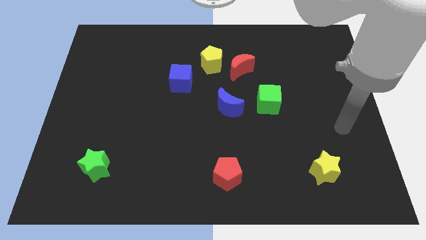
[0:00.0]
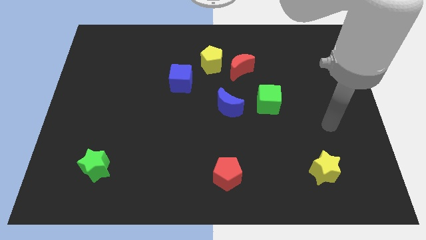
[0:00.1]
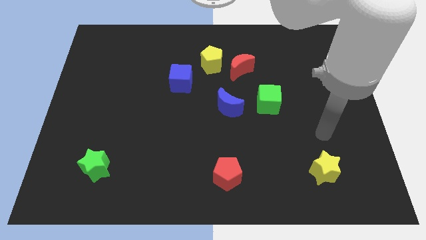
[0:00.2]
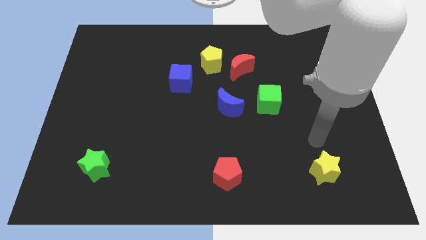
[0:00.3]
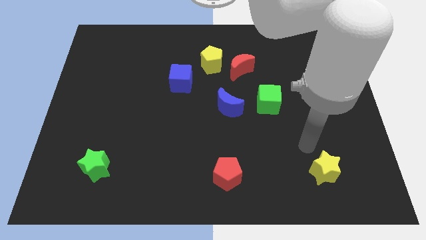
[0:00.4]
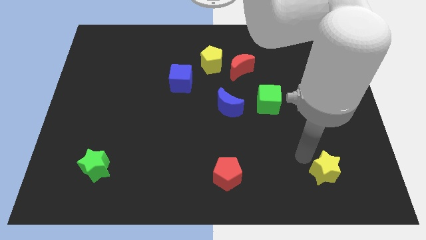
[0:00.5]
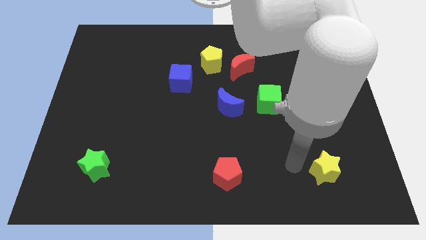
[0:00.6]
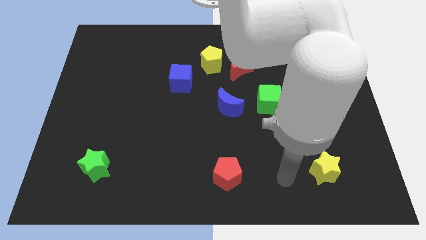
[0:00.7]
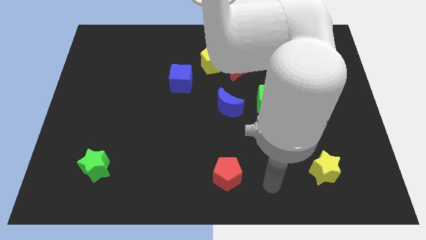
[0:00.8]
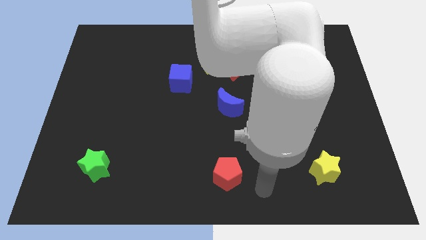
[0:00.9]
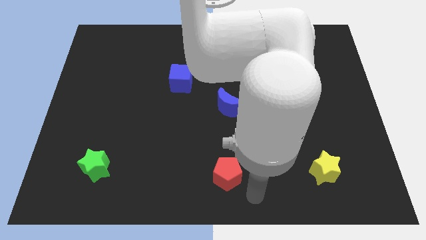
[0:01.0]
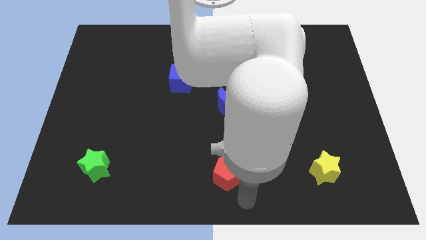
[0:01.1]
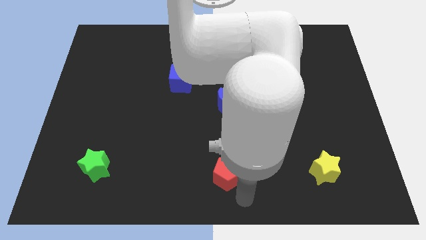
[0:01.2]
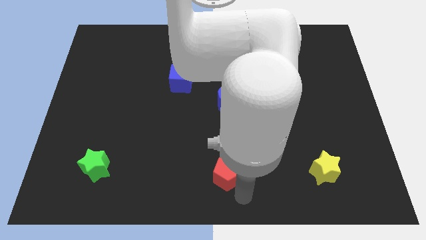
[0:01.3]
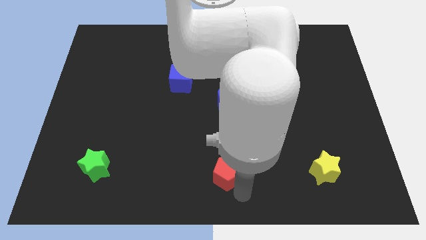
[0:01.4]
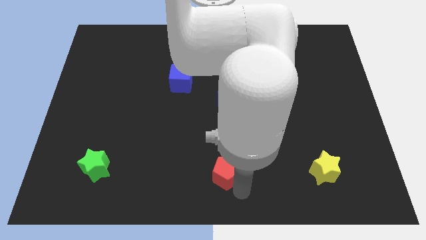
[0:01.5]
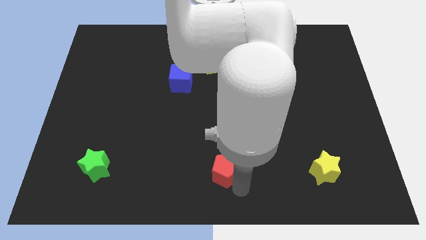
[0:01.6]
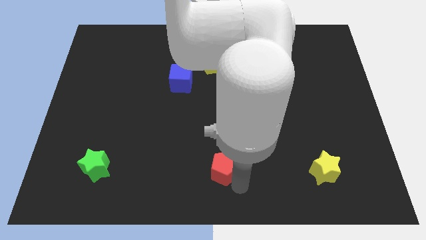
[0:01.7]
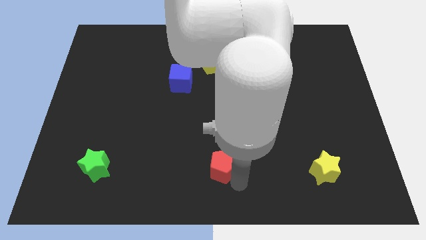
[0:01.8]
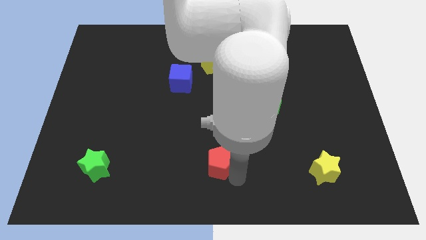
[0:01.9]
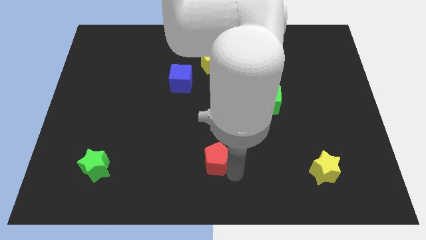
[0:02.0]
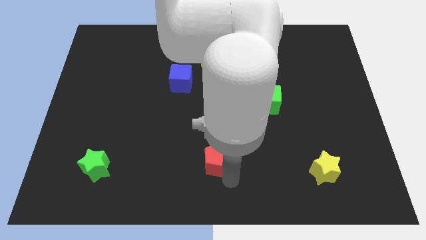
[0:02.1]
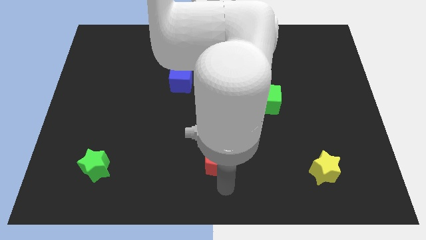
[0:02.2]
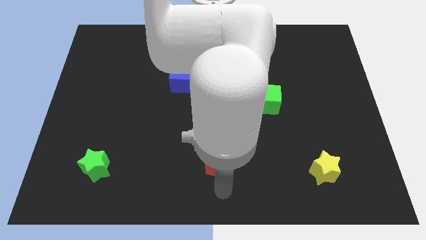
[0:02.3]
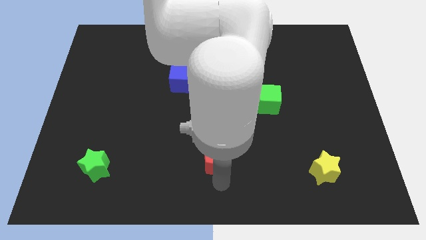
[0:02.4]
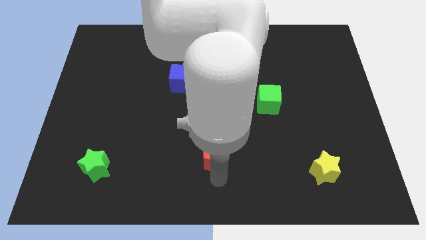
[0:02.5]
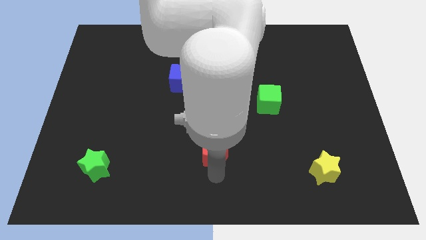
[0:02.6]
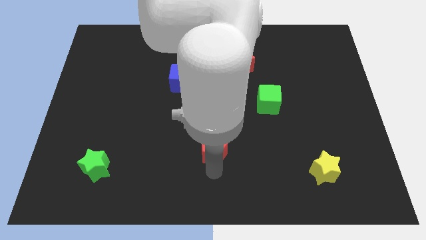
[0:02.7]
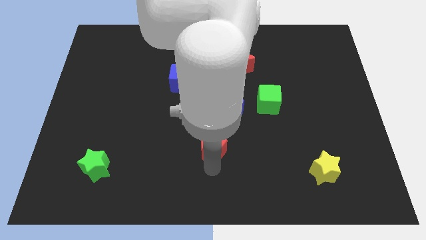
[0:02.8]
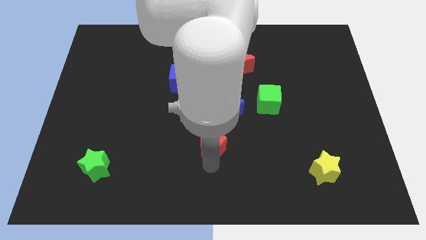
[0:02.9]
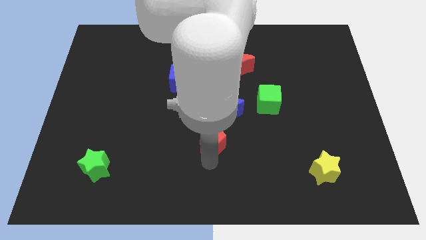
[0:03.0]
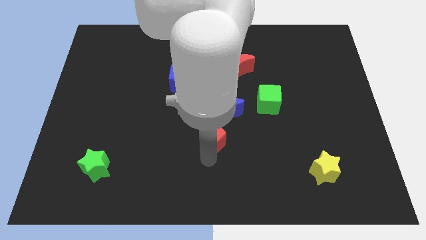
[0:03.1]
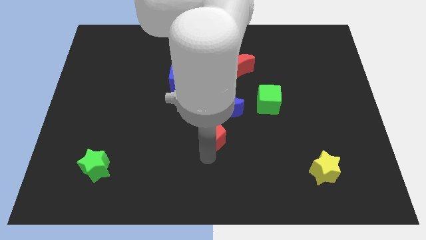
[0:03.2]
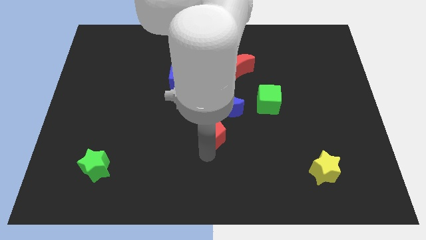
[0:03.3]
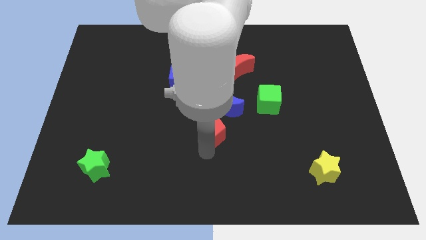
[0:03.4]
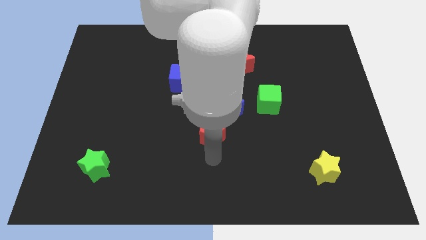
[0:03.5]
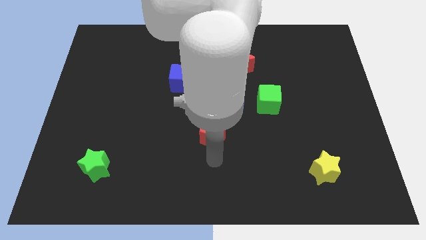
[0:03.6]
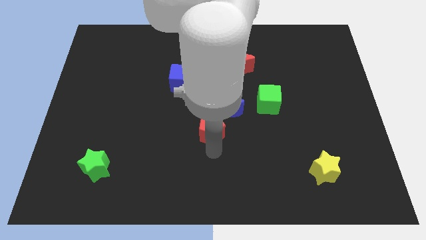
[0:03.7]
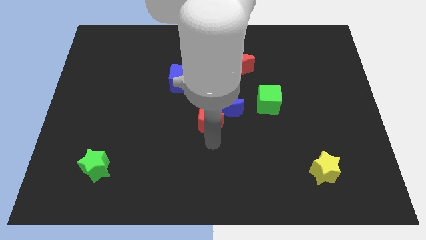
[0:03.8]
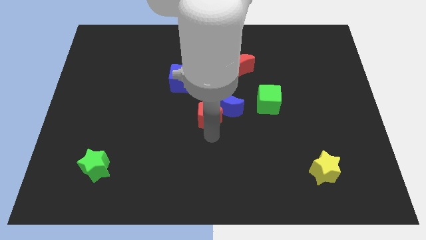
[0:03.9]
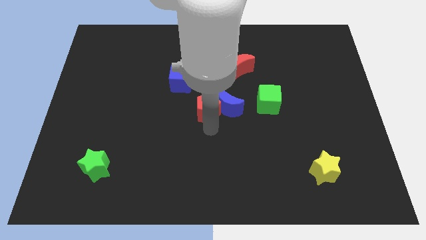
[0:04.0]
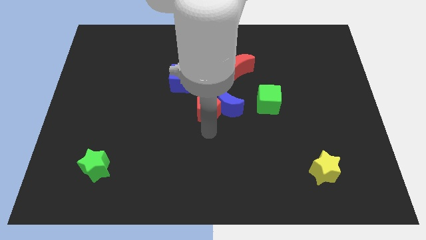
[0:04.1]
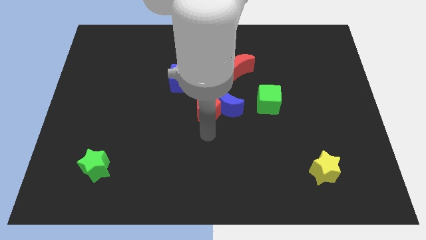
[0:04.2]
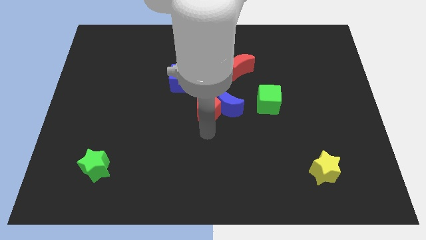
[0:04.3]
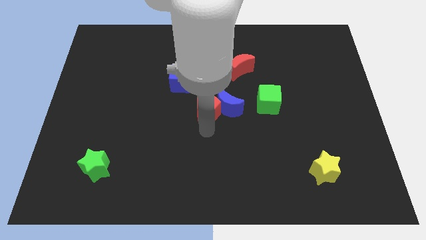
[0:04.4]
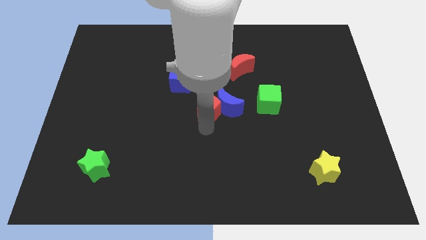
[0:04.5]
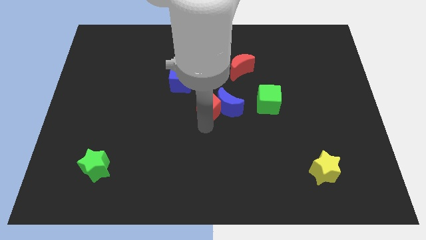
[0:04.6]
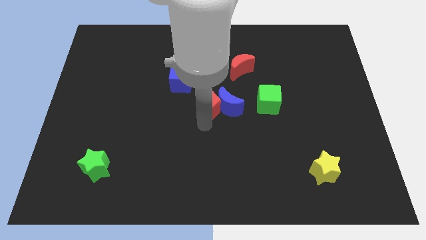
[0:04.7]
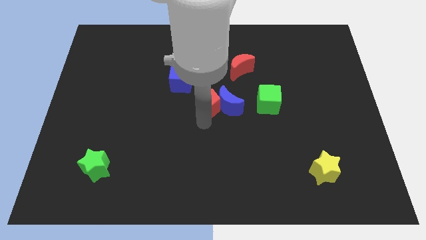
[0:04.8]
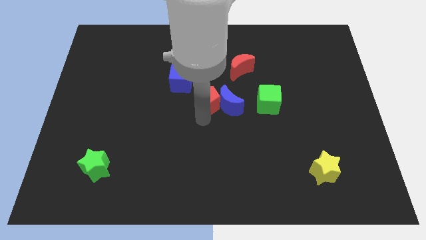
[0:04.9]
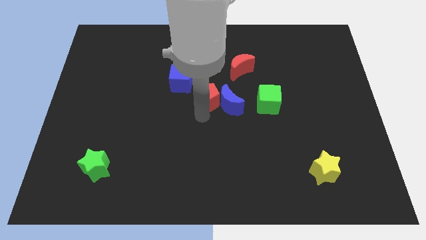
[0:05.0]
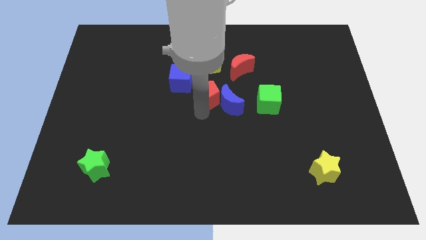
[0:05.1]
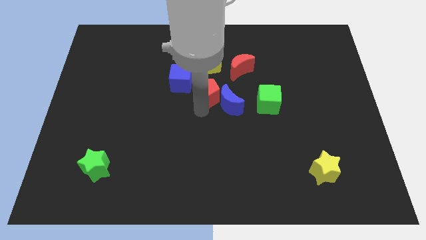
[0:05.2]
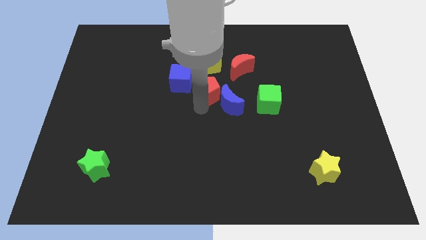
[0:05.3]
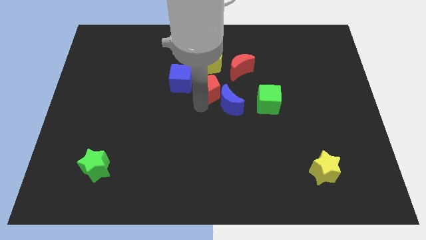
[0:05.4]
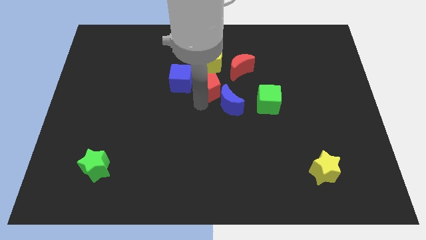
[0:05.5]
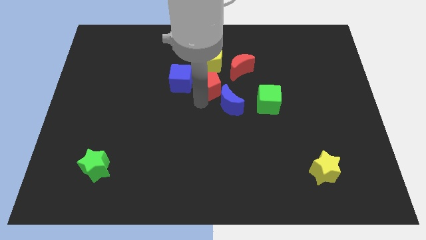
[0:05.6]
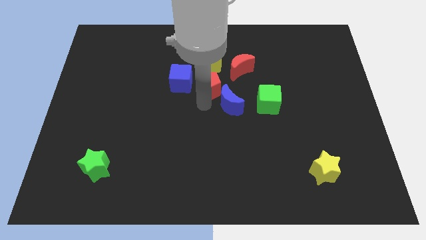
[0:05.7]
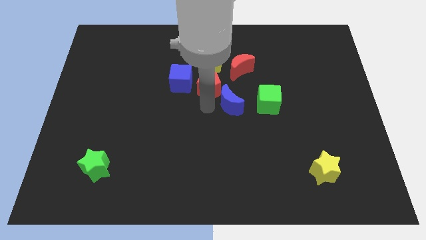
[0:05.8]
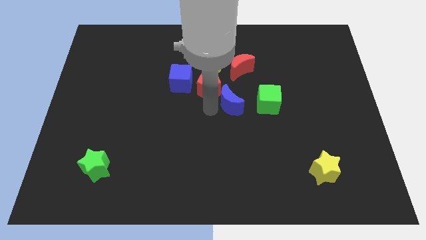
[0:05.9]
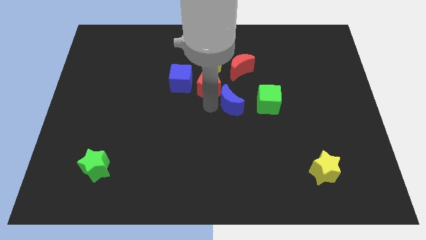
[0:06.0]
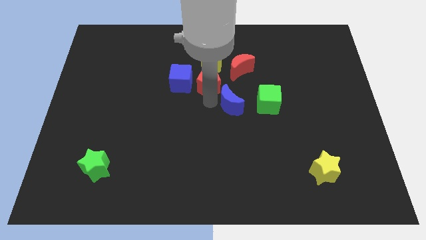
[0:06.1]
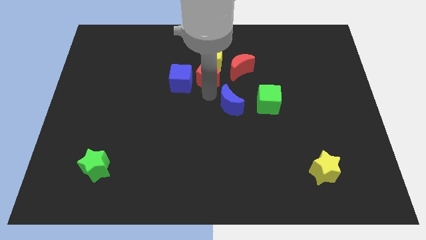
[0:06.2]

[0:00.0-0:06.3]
put the red pentagon towards the yellow pentagon

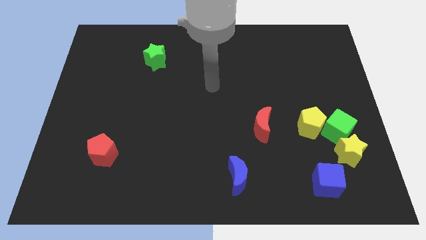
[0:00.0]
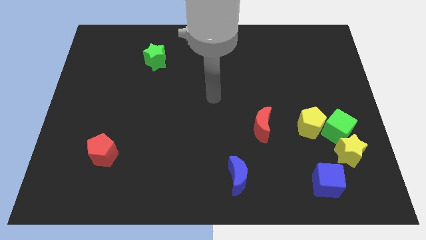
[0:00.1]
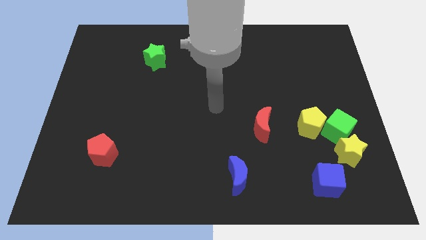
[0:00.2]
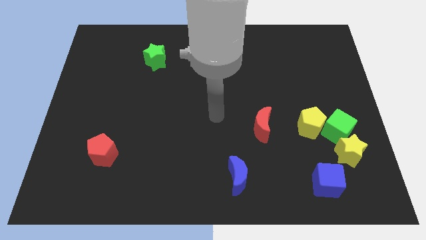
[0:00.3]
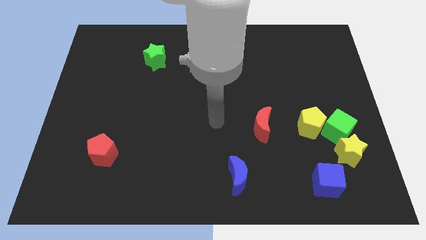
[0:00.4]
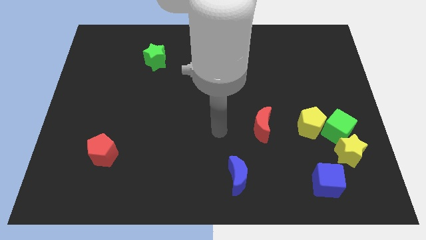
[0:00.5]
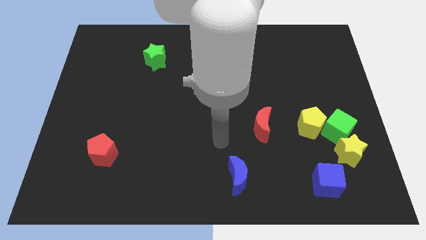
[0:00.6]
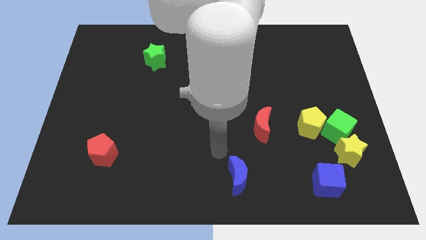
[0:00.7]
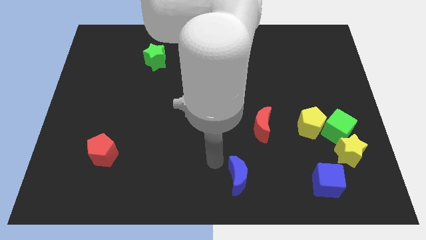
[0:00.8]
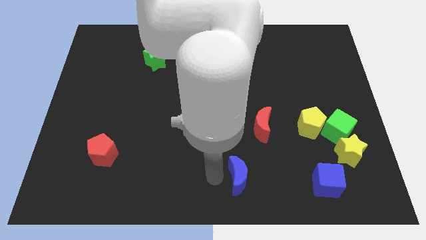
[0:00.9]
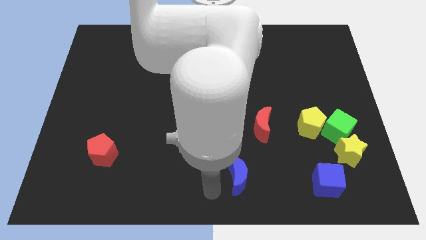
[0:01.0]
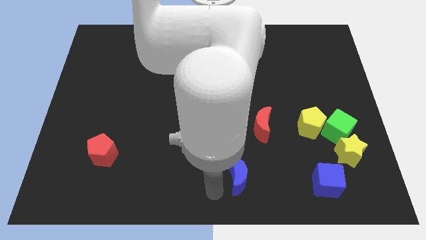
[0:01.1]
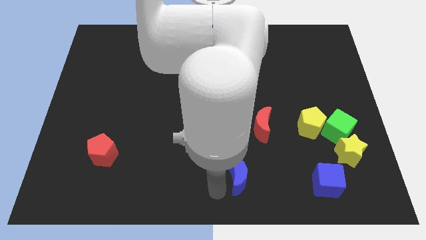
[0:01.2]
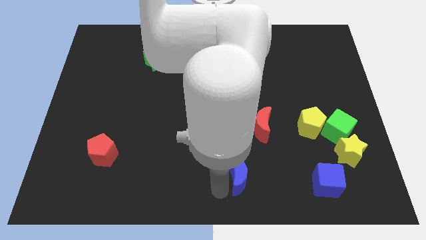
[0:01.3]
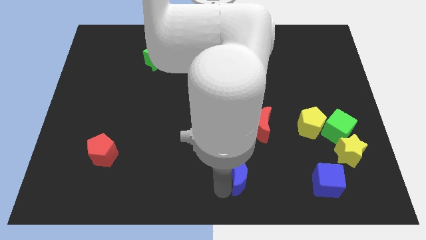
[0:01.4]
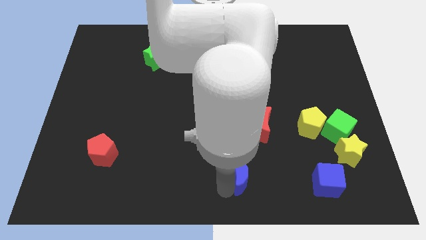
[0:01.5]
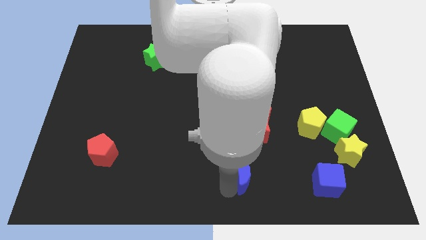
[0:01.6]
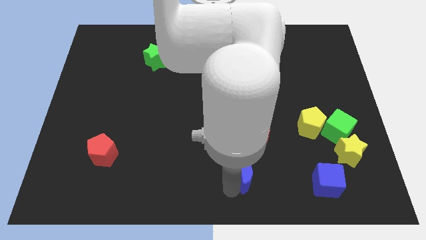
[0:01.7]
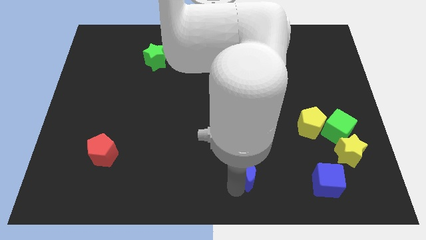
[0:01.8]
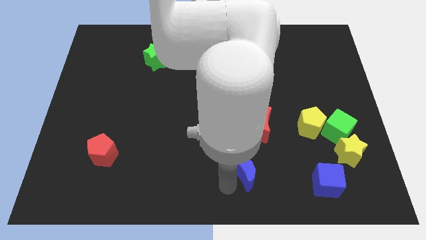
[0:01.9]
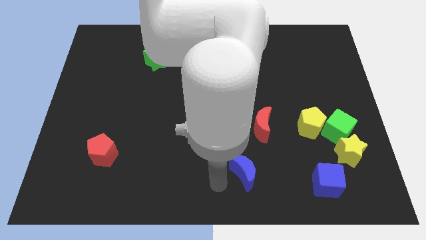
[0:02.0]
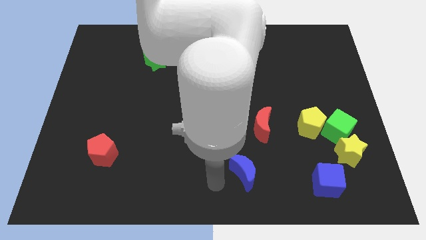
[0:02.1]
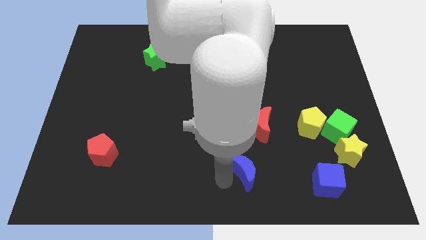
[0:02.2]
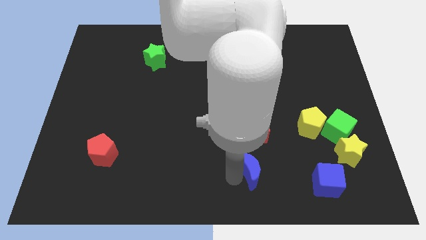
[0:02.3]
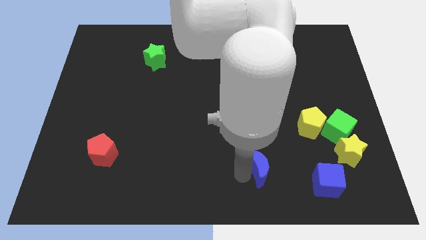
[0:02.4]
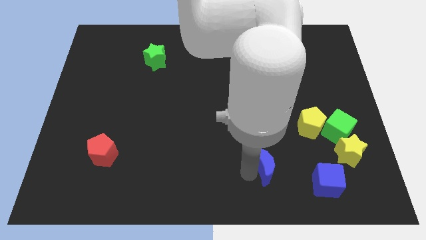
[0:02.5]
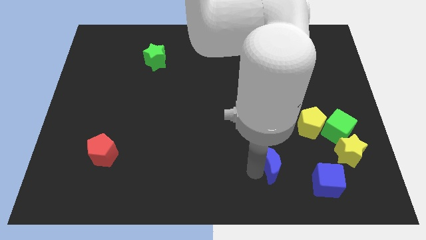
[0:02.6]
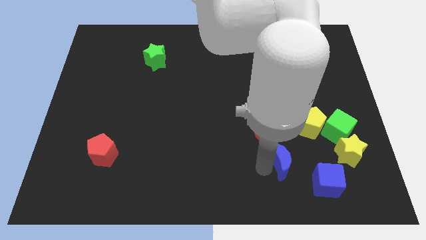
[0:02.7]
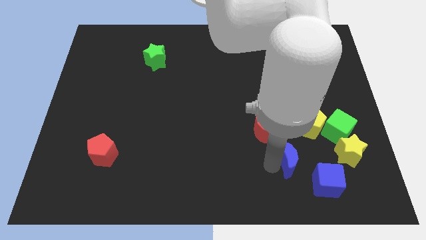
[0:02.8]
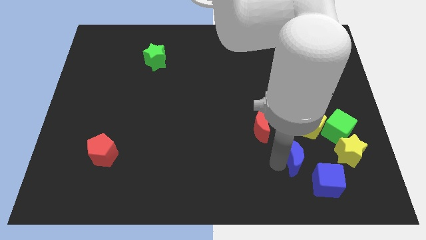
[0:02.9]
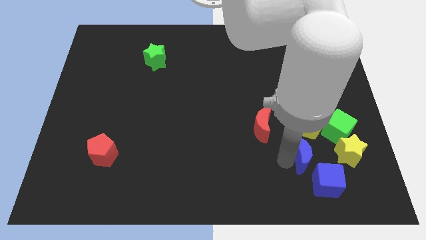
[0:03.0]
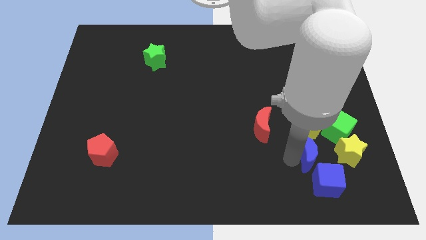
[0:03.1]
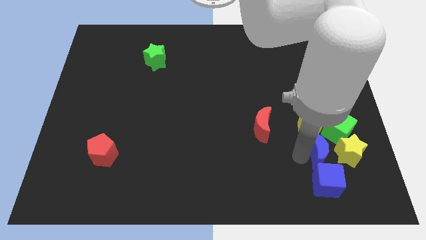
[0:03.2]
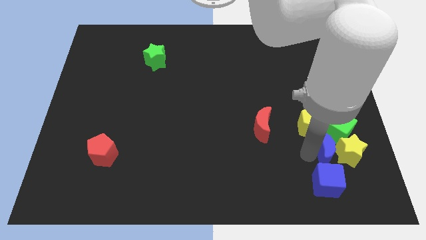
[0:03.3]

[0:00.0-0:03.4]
put the blue moon close to the yellow star
